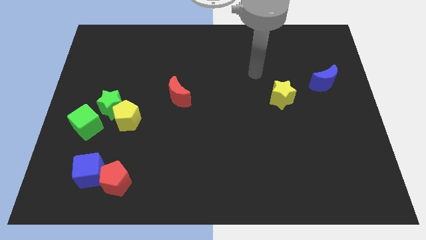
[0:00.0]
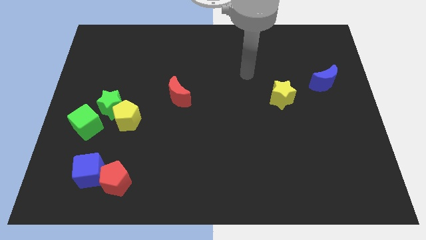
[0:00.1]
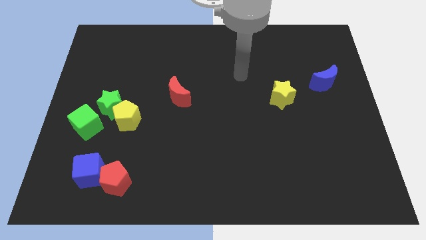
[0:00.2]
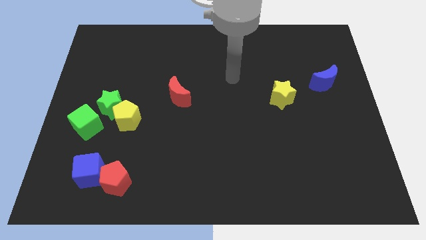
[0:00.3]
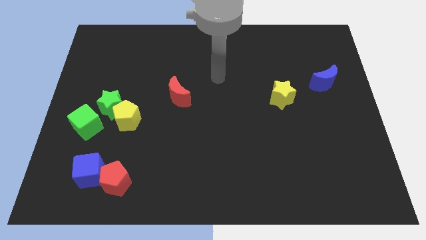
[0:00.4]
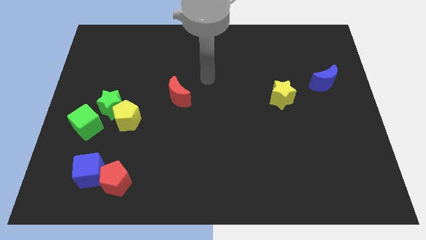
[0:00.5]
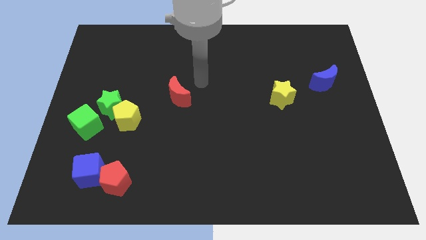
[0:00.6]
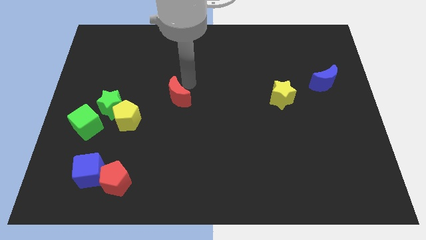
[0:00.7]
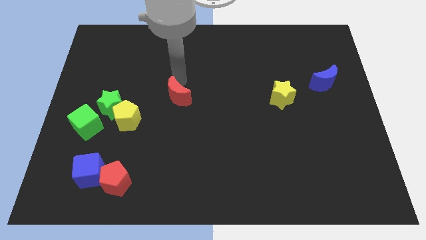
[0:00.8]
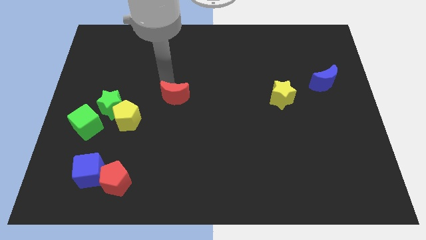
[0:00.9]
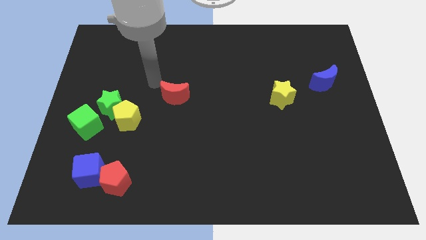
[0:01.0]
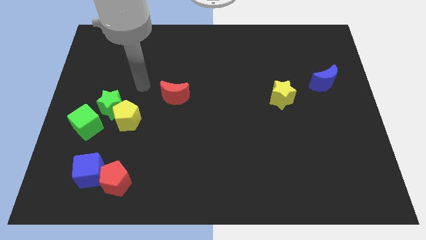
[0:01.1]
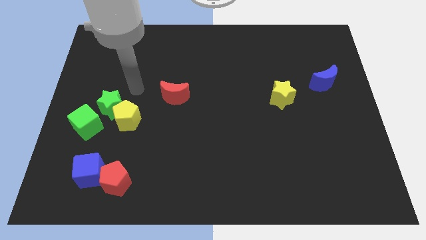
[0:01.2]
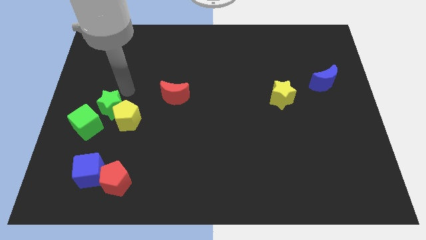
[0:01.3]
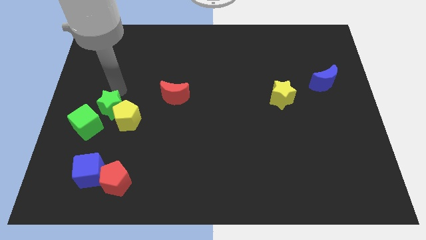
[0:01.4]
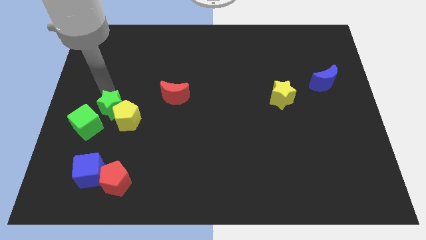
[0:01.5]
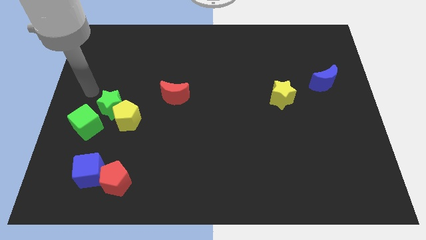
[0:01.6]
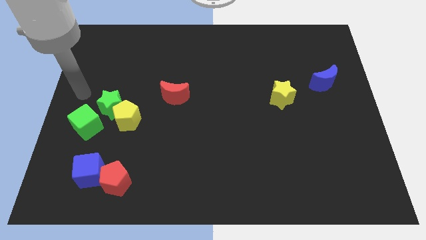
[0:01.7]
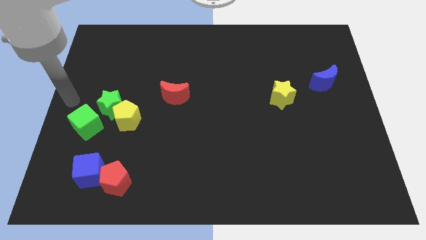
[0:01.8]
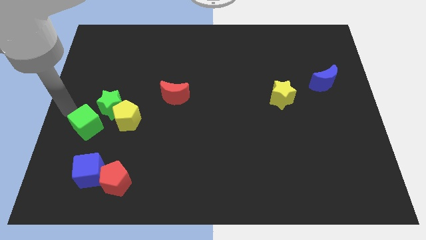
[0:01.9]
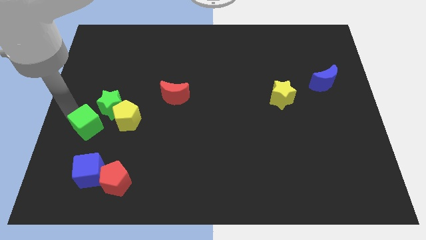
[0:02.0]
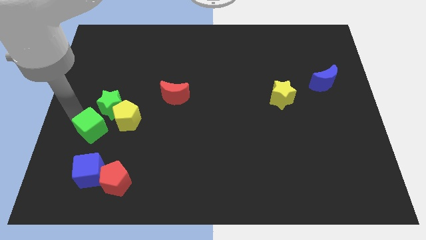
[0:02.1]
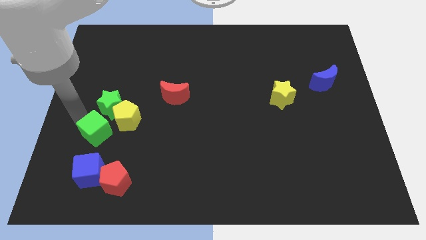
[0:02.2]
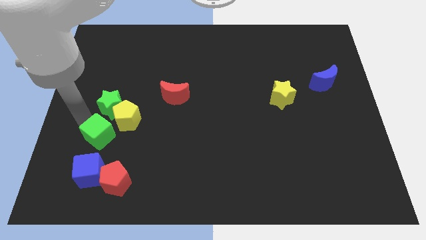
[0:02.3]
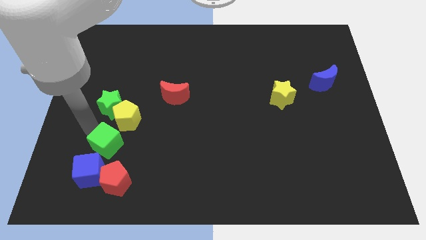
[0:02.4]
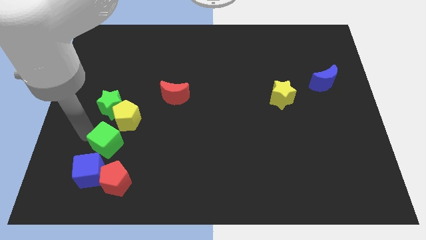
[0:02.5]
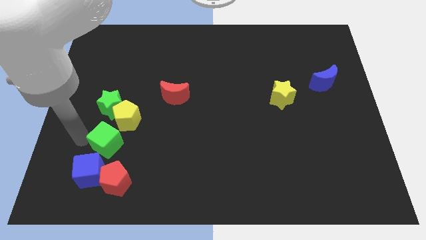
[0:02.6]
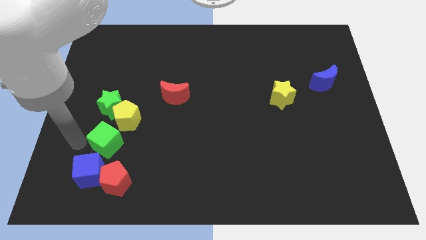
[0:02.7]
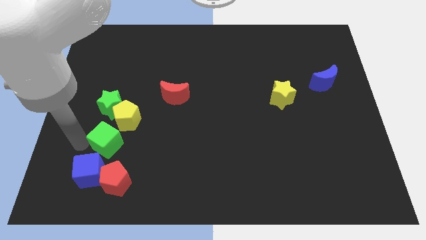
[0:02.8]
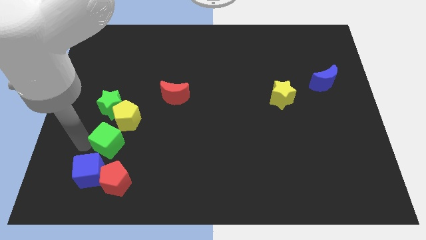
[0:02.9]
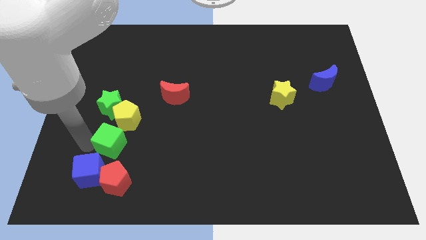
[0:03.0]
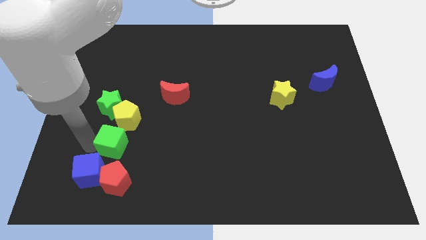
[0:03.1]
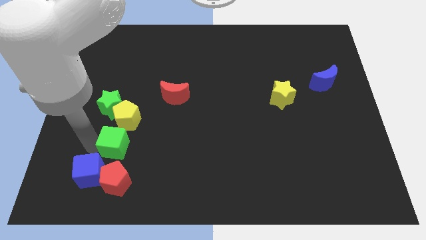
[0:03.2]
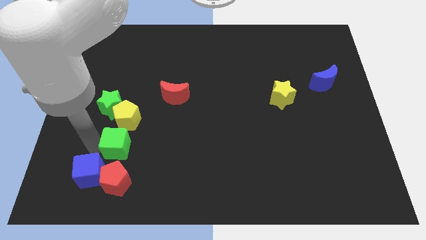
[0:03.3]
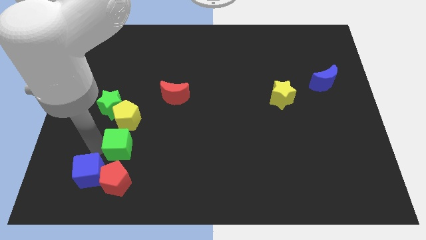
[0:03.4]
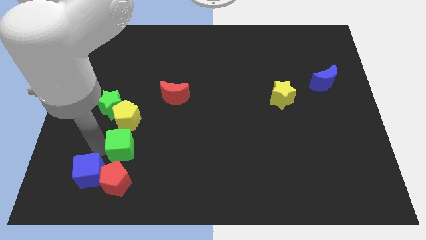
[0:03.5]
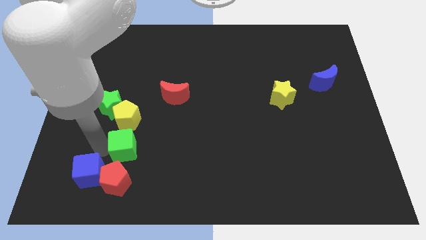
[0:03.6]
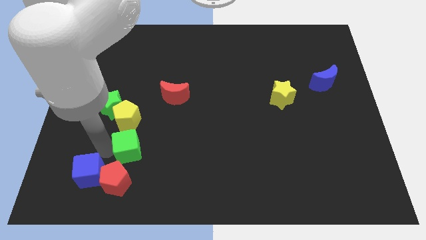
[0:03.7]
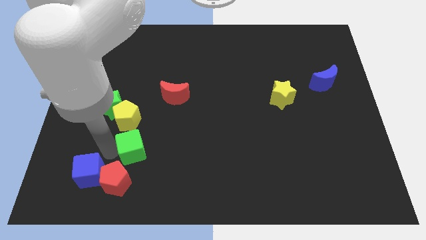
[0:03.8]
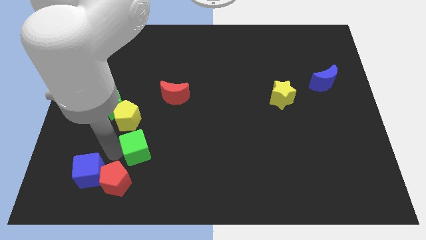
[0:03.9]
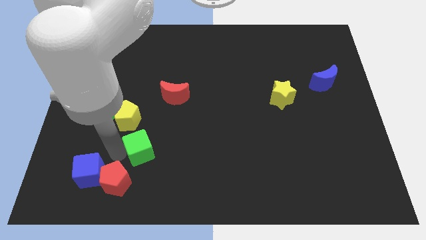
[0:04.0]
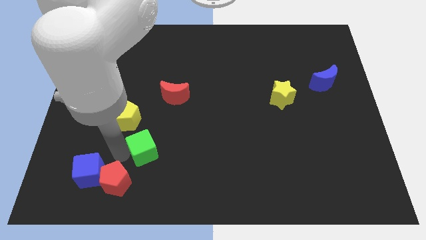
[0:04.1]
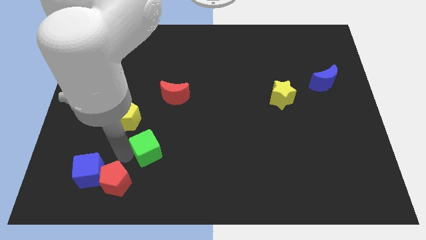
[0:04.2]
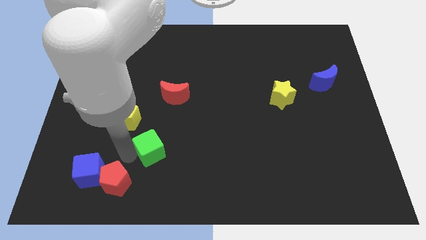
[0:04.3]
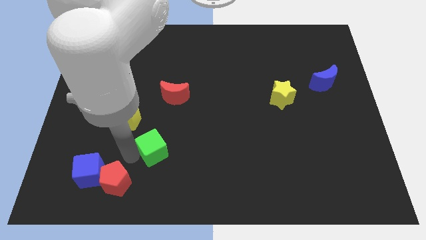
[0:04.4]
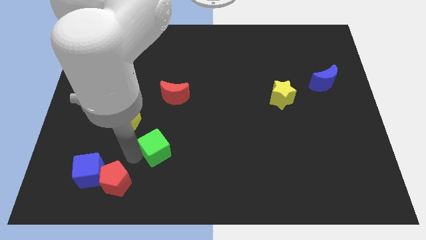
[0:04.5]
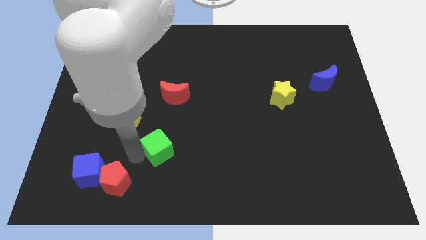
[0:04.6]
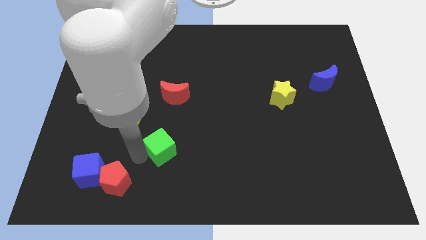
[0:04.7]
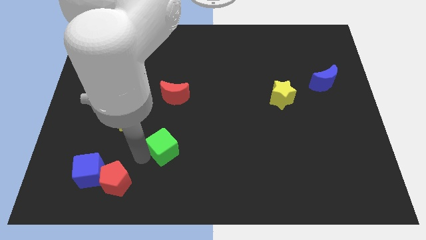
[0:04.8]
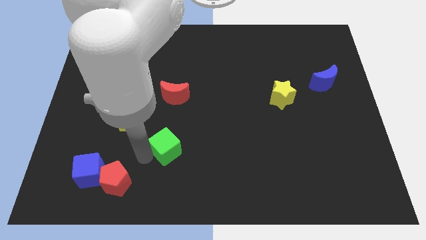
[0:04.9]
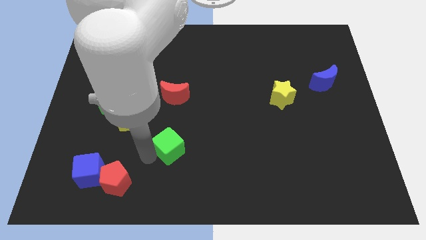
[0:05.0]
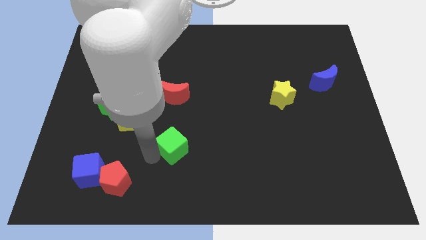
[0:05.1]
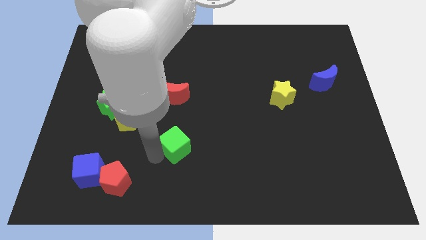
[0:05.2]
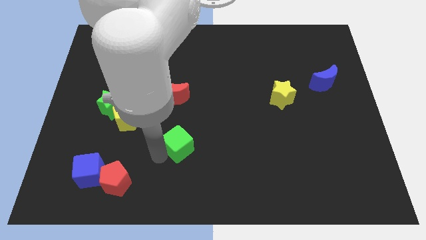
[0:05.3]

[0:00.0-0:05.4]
move the green cube right

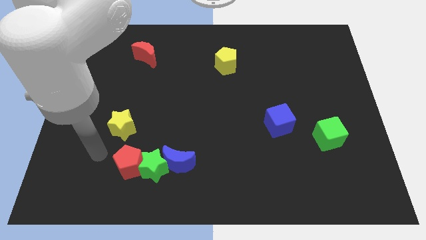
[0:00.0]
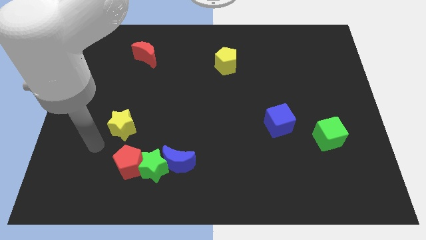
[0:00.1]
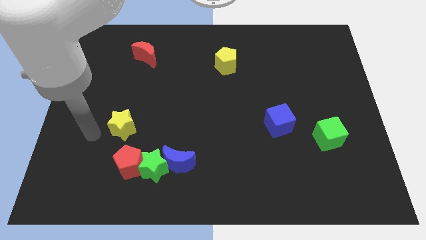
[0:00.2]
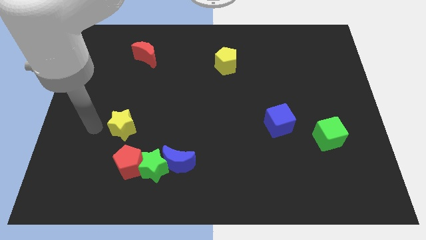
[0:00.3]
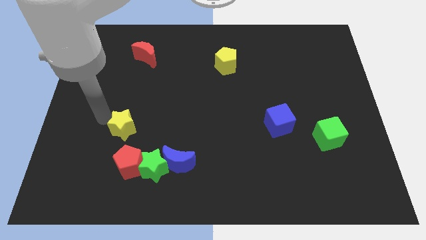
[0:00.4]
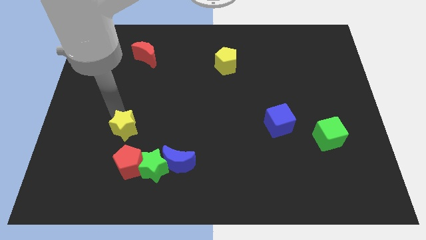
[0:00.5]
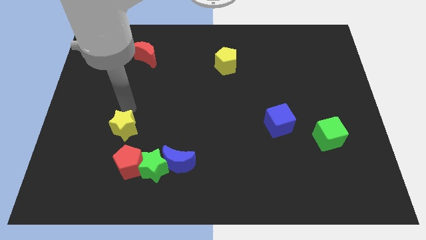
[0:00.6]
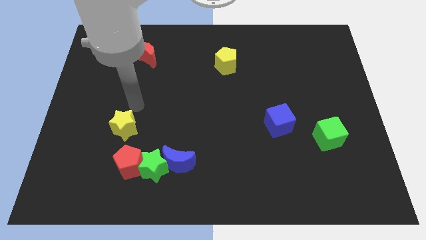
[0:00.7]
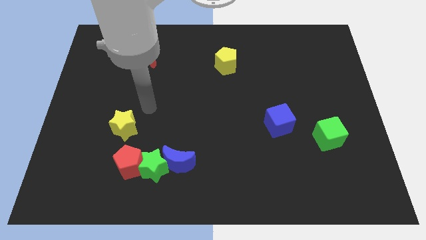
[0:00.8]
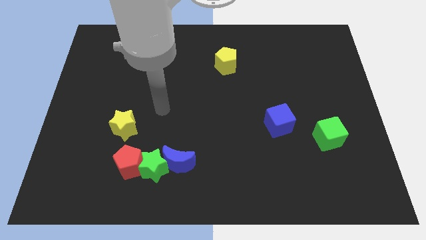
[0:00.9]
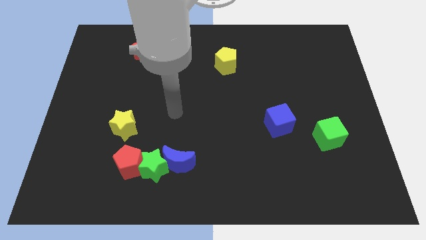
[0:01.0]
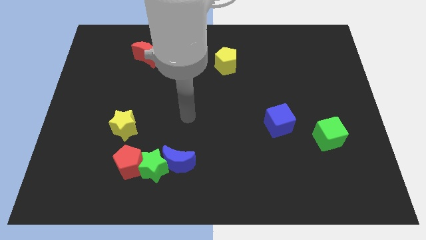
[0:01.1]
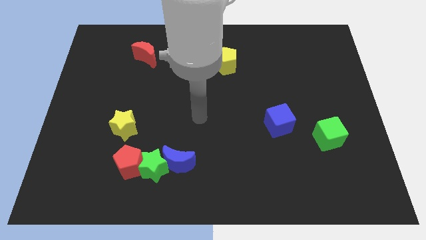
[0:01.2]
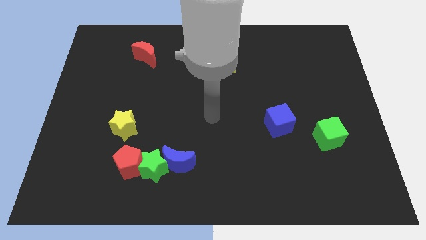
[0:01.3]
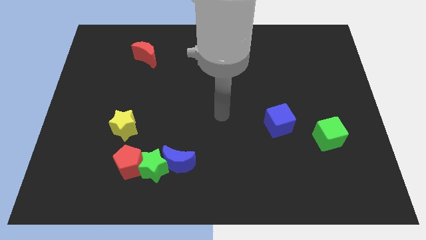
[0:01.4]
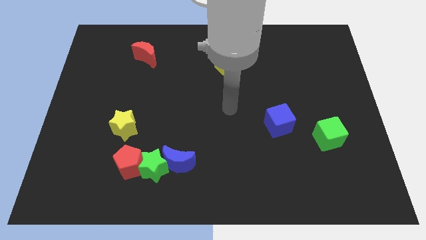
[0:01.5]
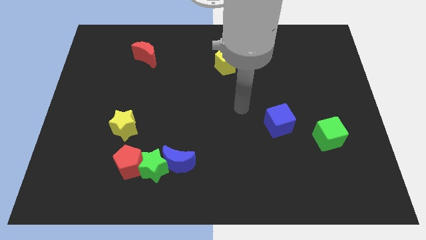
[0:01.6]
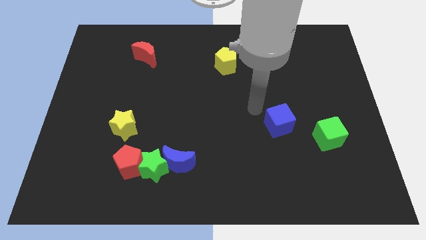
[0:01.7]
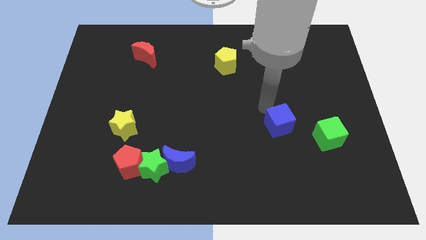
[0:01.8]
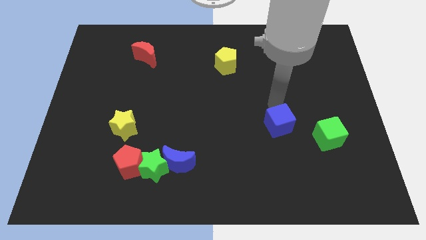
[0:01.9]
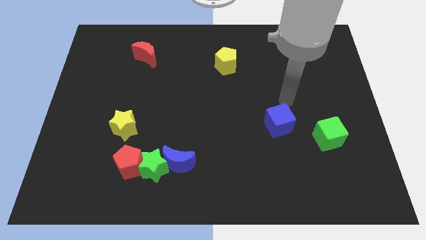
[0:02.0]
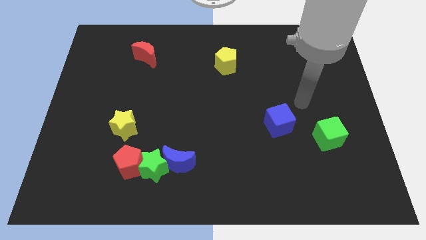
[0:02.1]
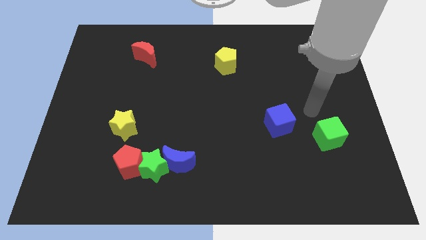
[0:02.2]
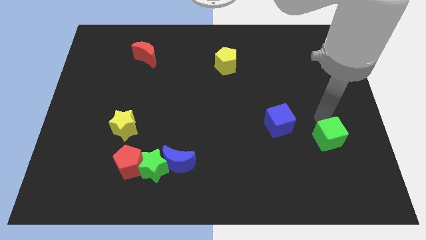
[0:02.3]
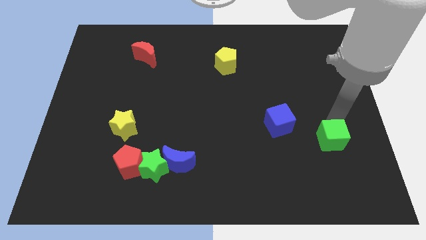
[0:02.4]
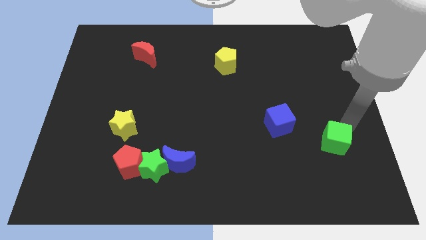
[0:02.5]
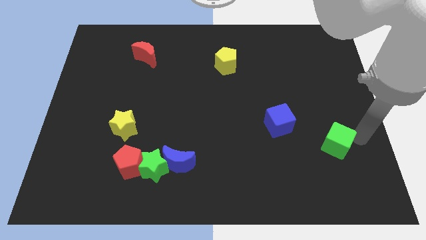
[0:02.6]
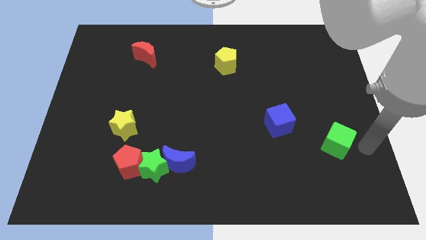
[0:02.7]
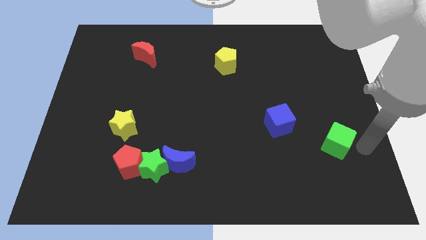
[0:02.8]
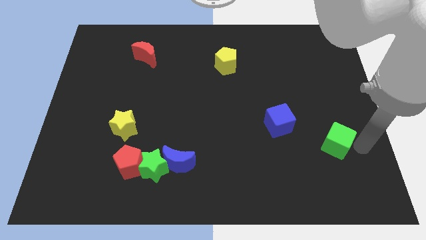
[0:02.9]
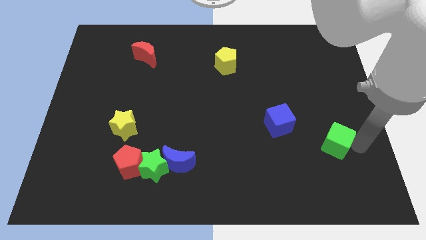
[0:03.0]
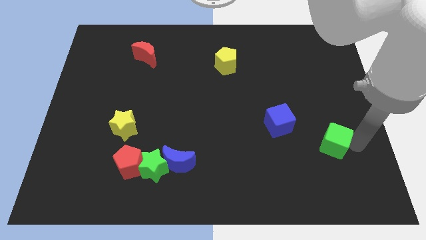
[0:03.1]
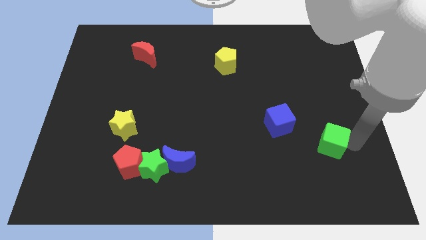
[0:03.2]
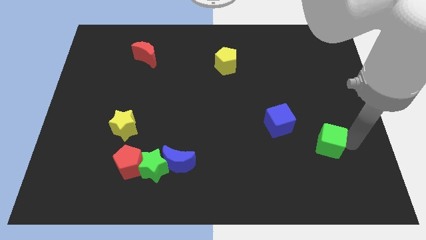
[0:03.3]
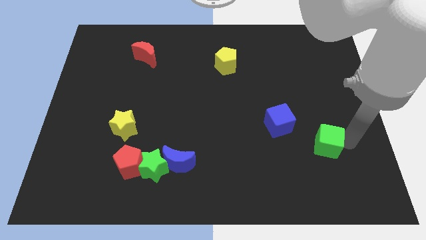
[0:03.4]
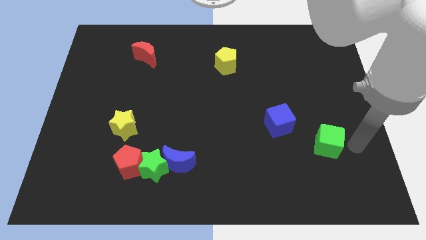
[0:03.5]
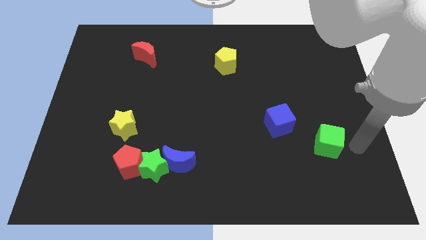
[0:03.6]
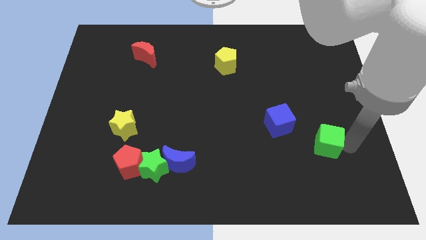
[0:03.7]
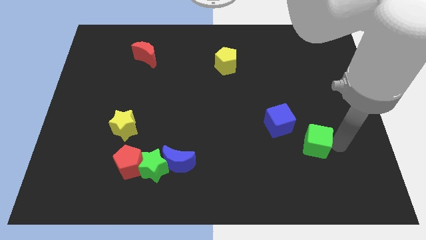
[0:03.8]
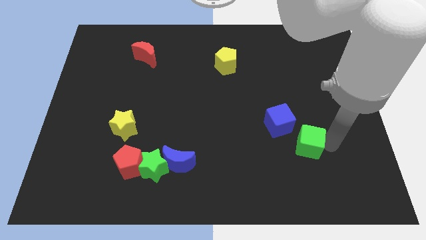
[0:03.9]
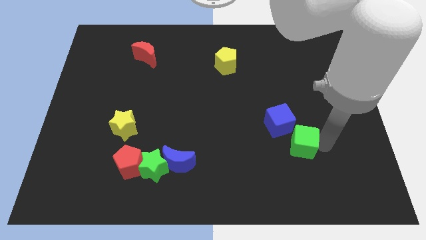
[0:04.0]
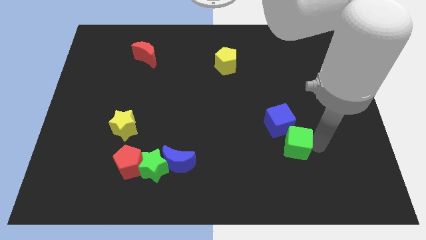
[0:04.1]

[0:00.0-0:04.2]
push the green cube a bit to the left
